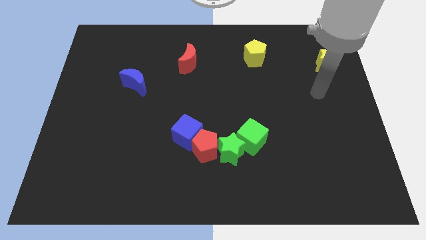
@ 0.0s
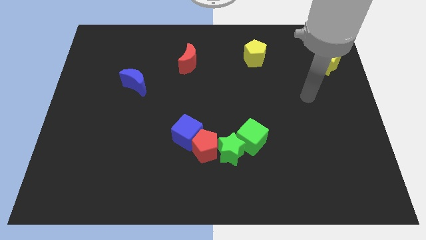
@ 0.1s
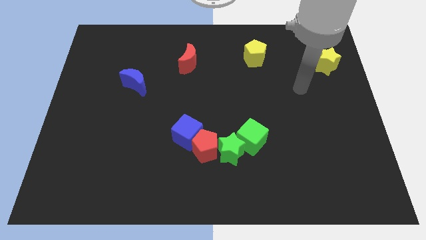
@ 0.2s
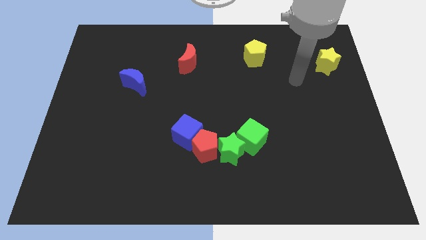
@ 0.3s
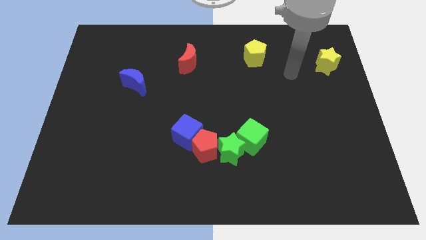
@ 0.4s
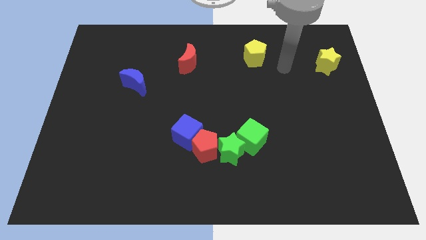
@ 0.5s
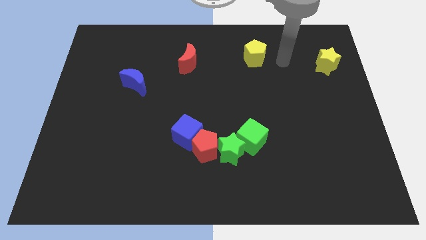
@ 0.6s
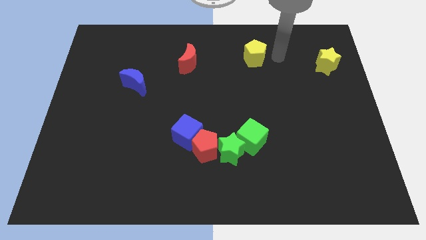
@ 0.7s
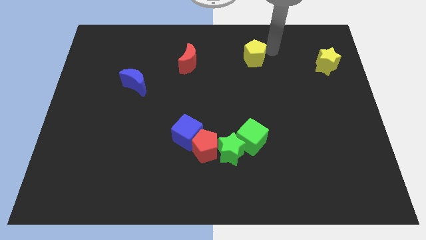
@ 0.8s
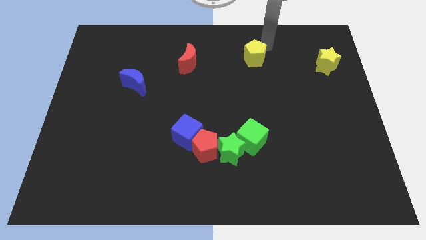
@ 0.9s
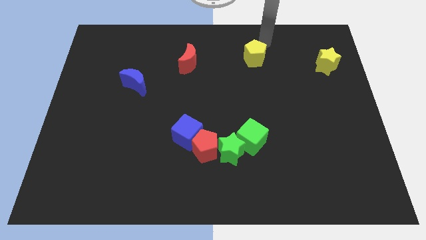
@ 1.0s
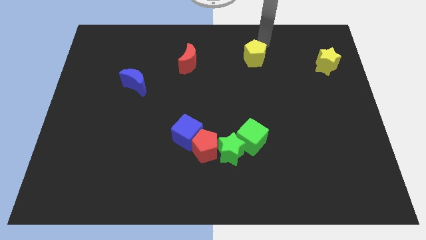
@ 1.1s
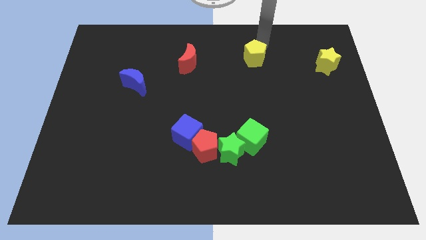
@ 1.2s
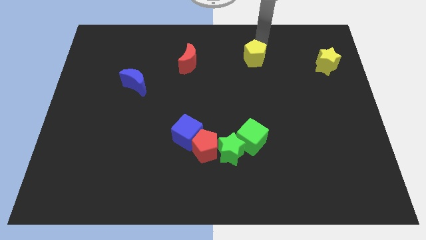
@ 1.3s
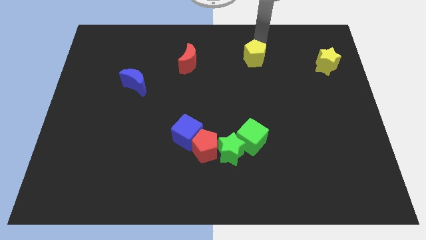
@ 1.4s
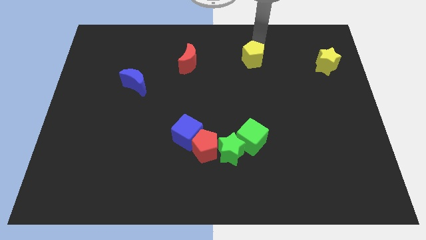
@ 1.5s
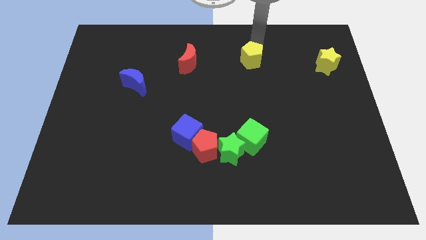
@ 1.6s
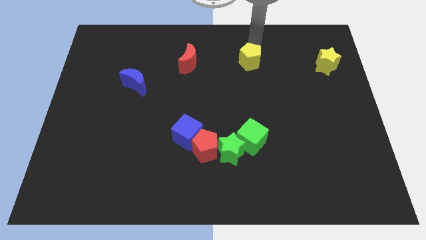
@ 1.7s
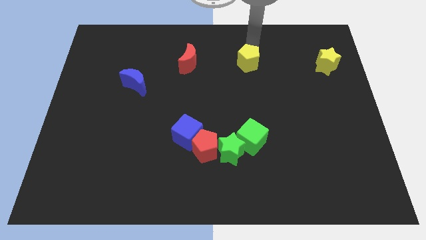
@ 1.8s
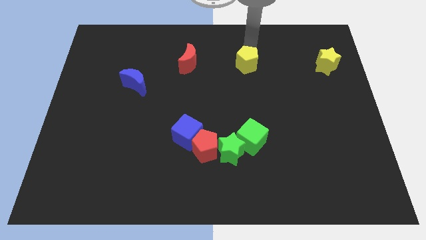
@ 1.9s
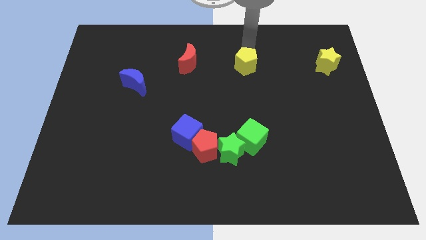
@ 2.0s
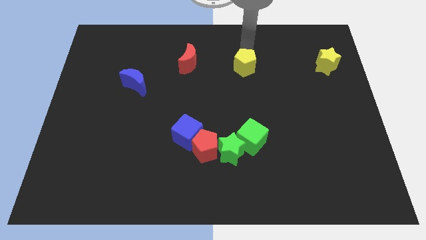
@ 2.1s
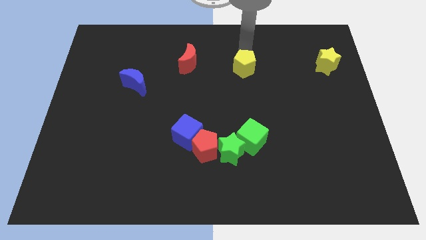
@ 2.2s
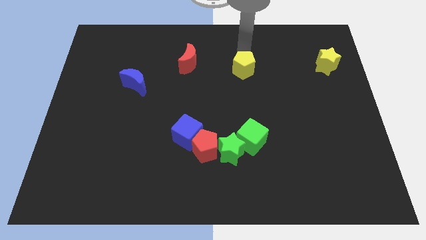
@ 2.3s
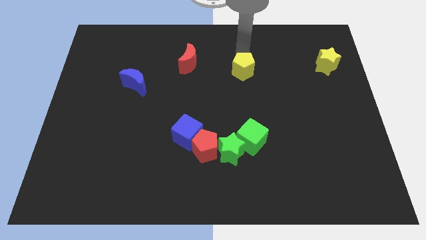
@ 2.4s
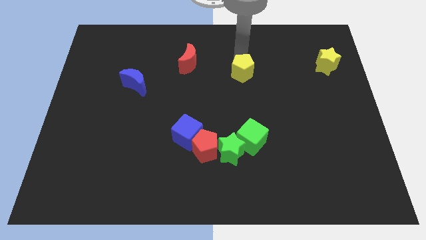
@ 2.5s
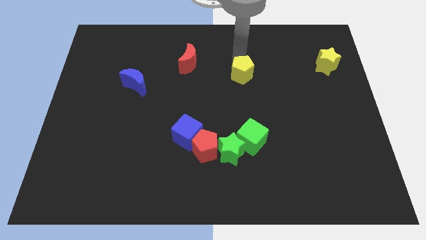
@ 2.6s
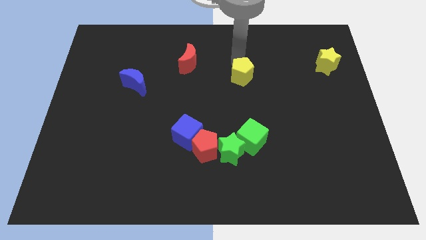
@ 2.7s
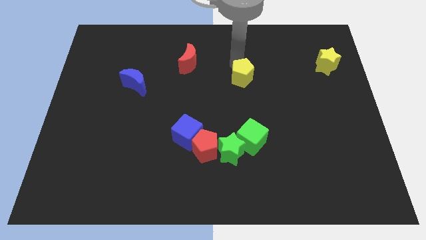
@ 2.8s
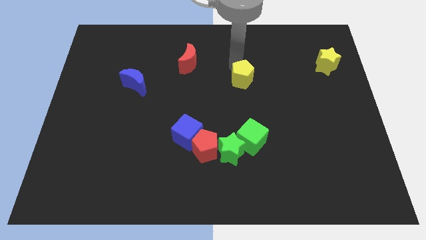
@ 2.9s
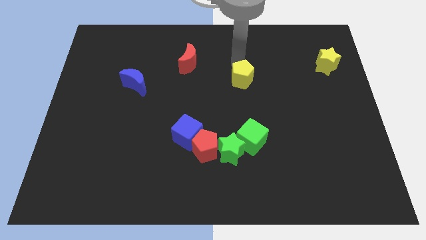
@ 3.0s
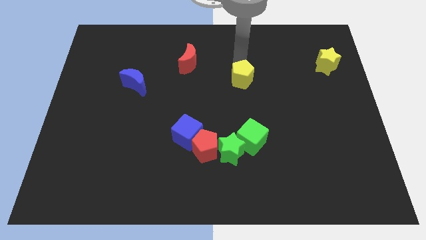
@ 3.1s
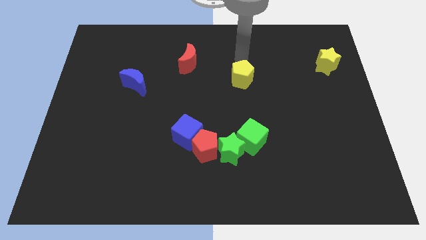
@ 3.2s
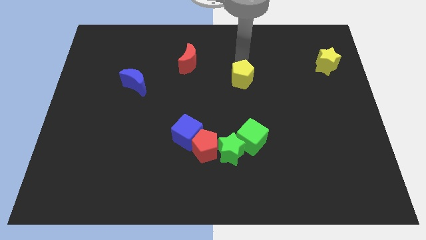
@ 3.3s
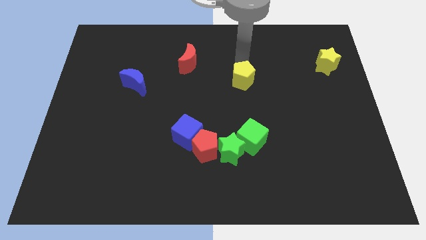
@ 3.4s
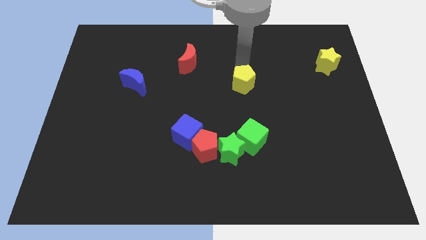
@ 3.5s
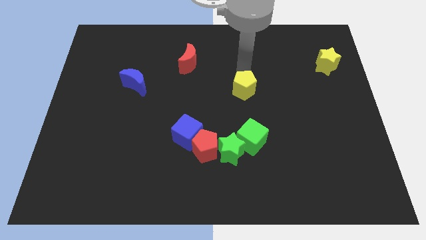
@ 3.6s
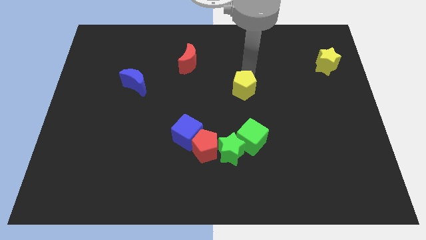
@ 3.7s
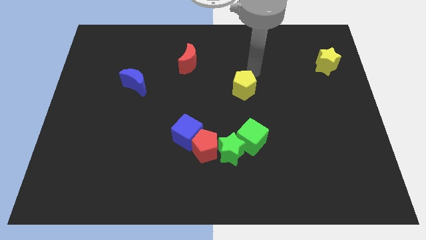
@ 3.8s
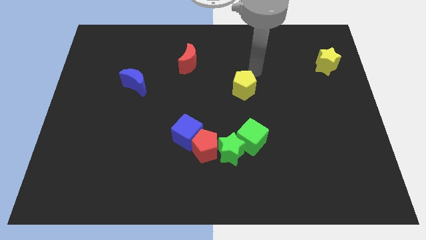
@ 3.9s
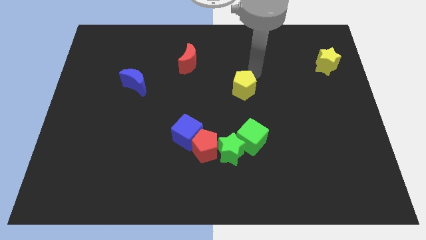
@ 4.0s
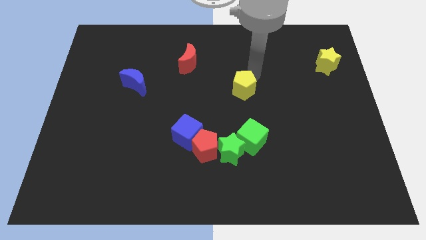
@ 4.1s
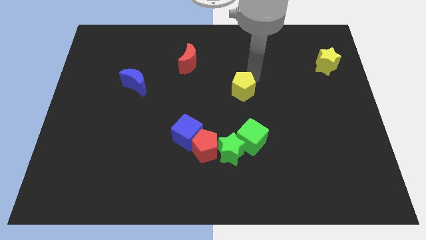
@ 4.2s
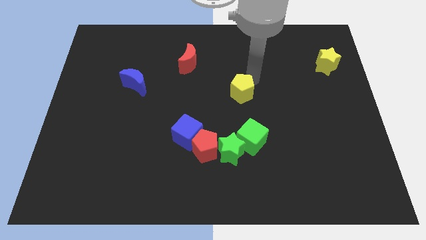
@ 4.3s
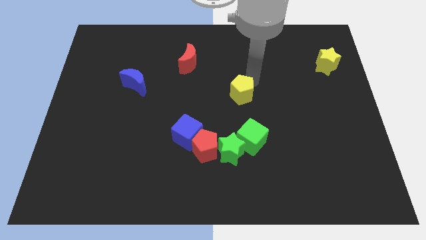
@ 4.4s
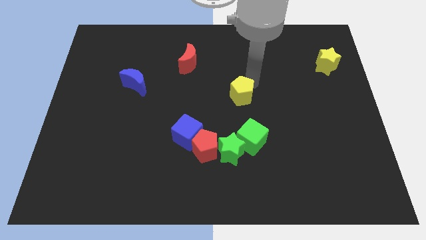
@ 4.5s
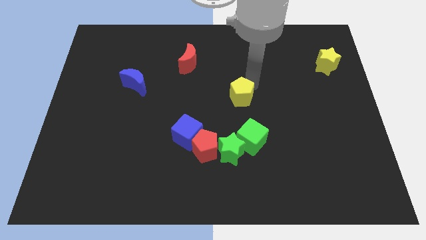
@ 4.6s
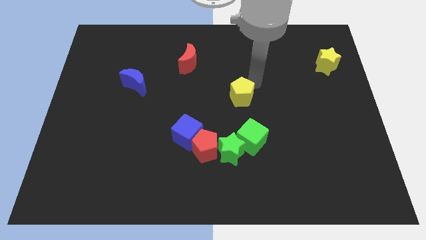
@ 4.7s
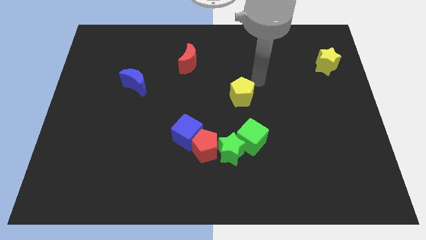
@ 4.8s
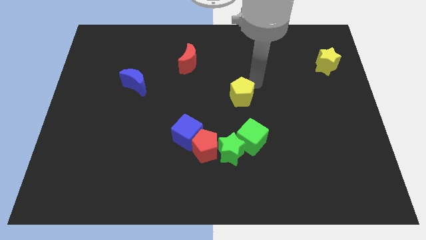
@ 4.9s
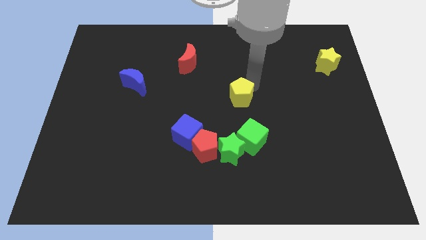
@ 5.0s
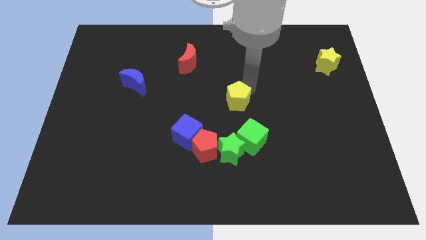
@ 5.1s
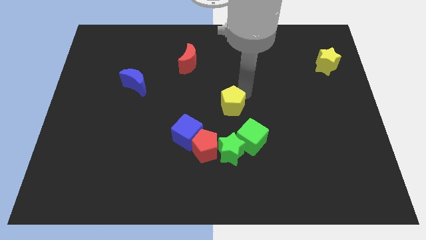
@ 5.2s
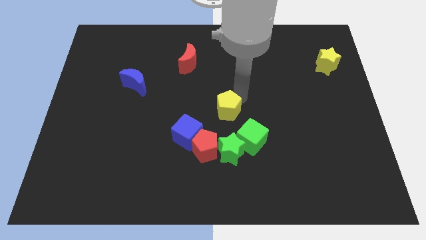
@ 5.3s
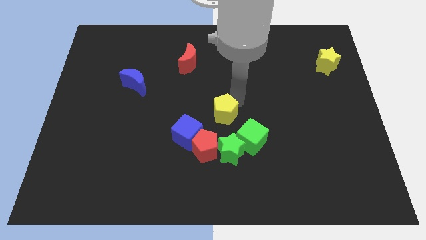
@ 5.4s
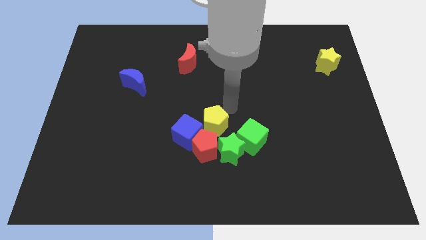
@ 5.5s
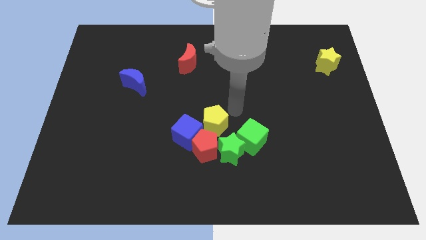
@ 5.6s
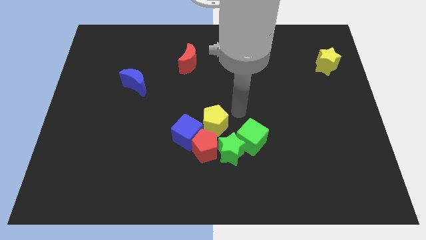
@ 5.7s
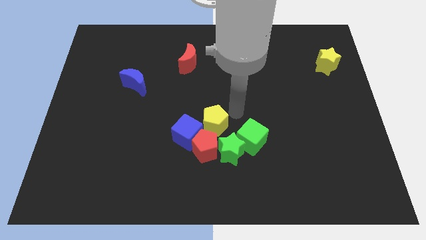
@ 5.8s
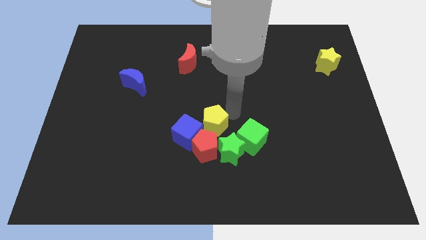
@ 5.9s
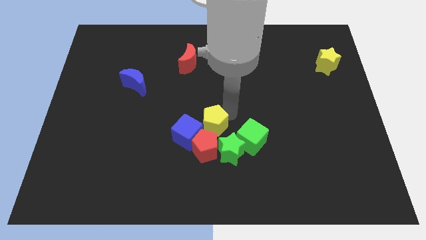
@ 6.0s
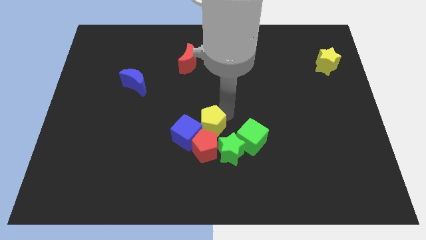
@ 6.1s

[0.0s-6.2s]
move the yellow pentagon next to the blue cube
